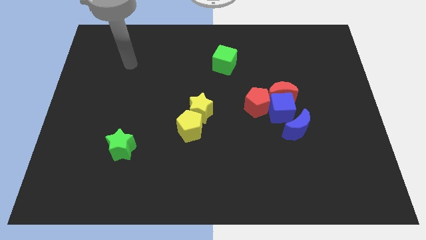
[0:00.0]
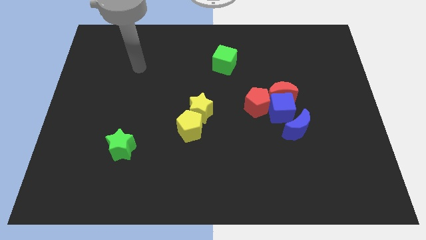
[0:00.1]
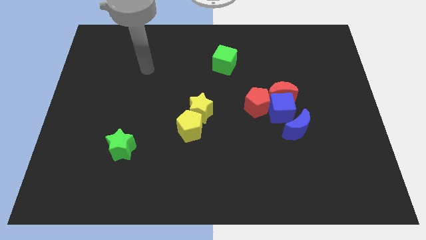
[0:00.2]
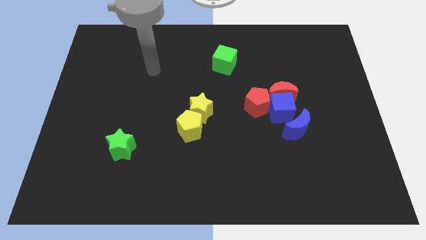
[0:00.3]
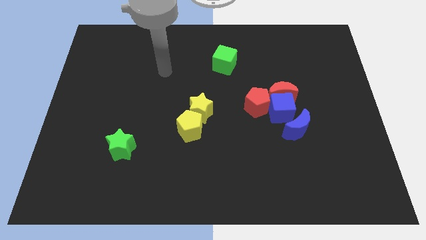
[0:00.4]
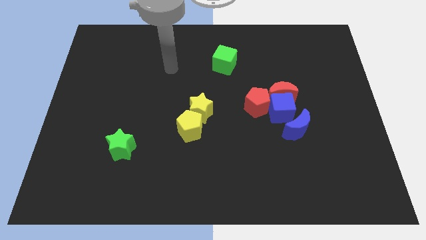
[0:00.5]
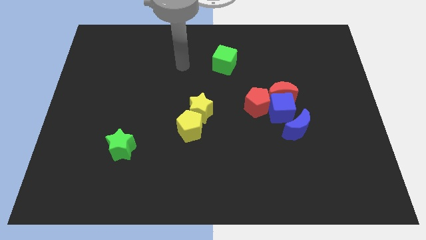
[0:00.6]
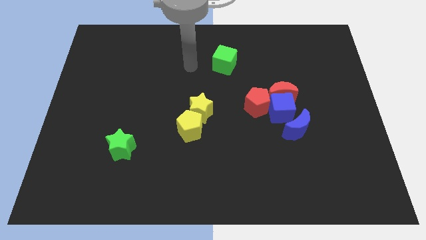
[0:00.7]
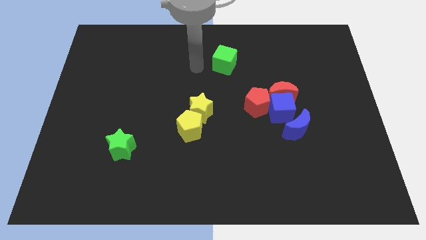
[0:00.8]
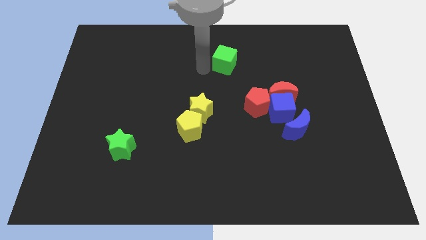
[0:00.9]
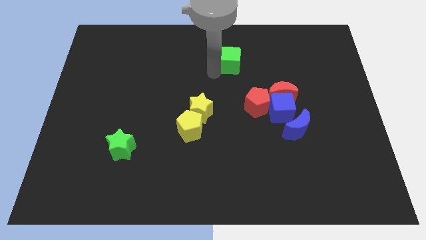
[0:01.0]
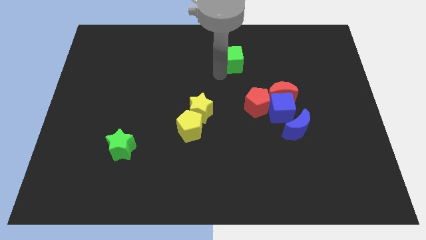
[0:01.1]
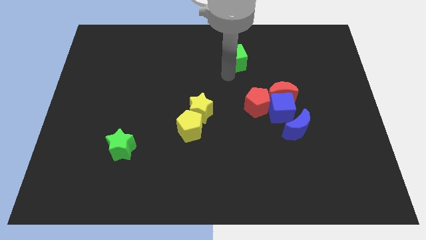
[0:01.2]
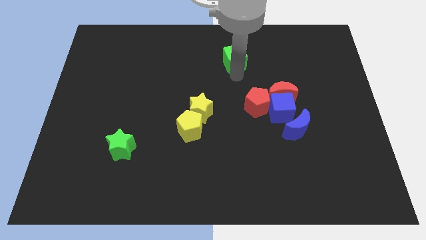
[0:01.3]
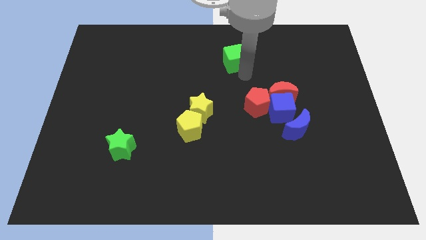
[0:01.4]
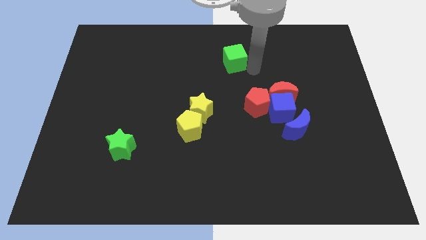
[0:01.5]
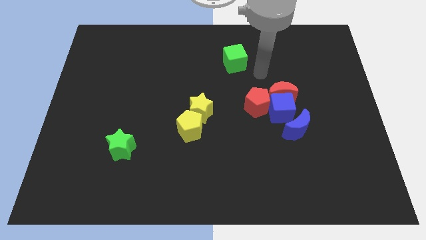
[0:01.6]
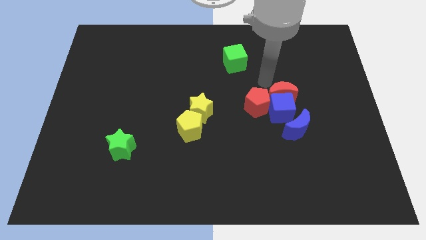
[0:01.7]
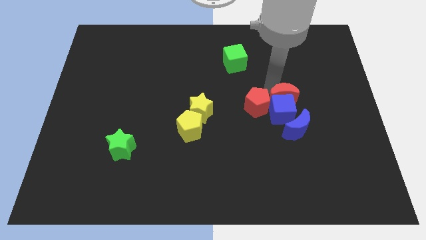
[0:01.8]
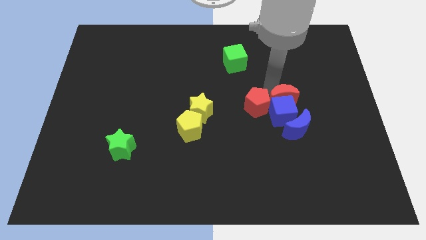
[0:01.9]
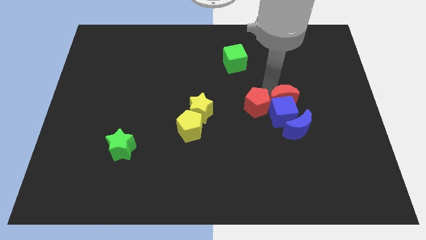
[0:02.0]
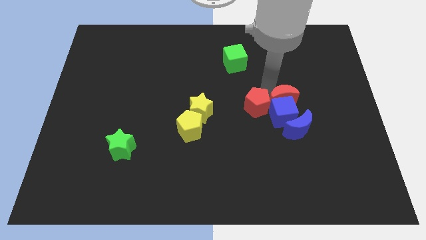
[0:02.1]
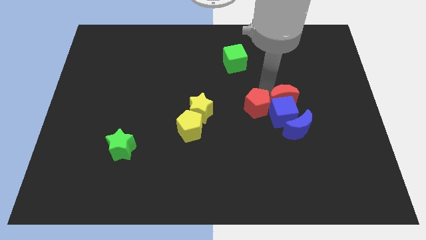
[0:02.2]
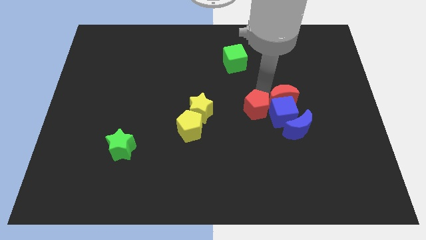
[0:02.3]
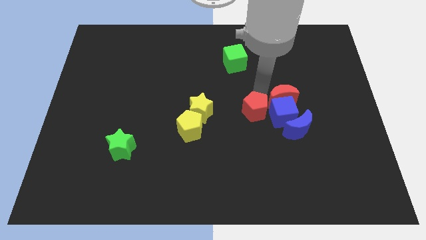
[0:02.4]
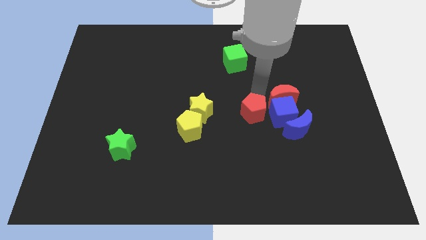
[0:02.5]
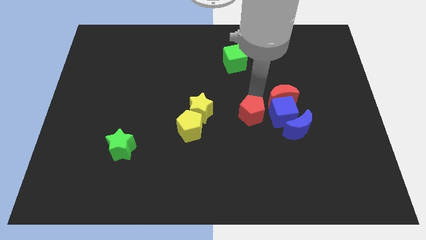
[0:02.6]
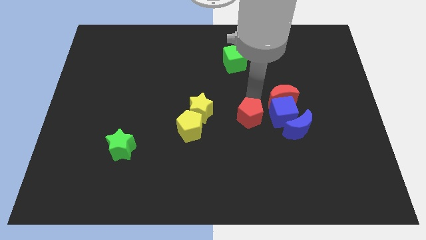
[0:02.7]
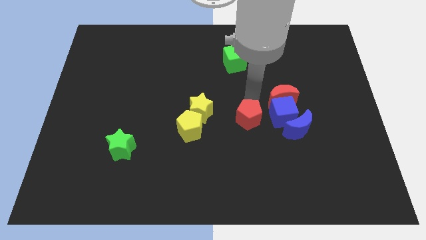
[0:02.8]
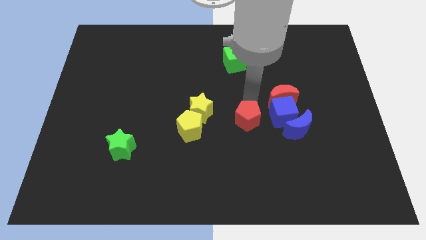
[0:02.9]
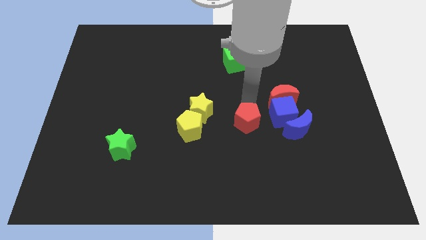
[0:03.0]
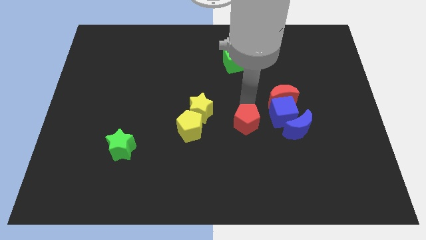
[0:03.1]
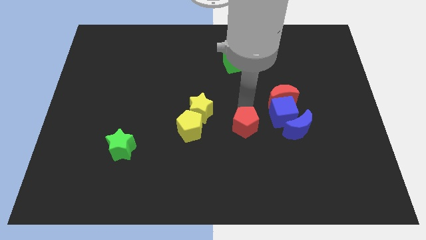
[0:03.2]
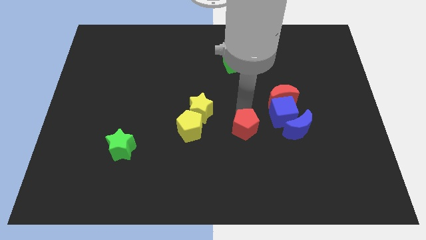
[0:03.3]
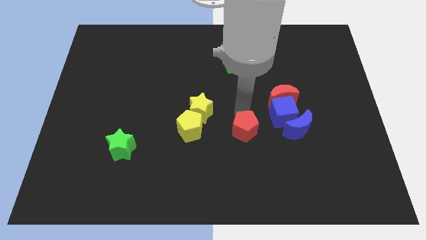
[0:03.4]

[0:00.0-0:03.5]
move the red pentagon diagonally down and left a little

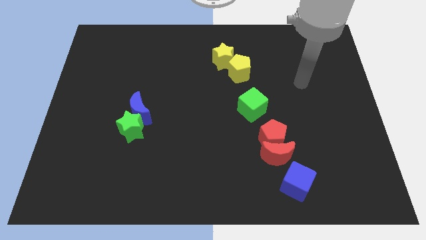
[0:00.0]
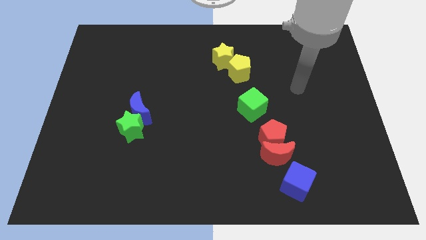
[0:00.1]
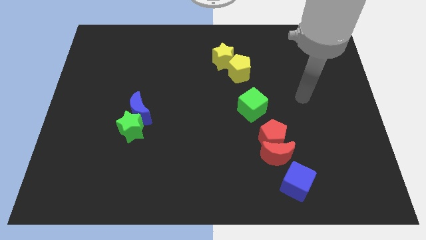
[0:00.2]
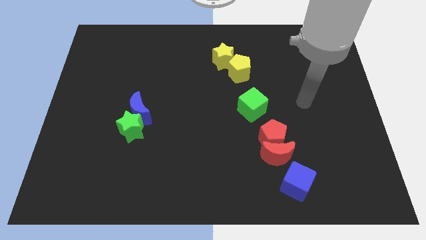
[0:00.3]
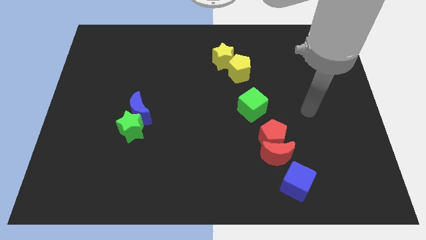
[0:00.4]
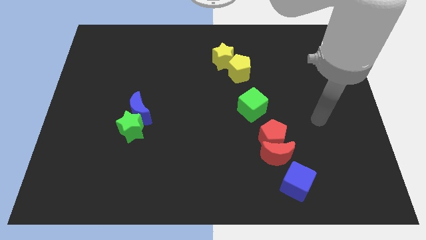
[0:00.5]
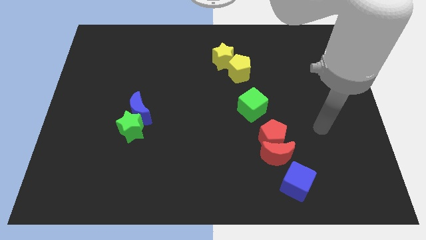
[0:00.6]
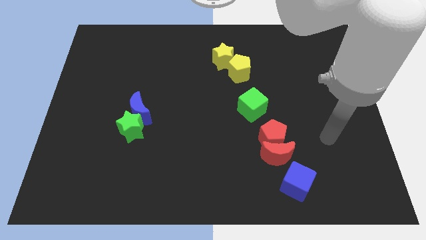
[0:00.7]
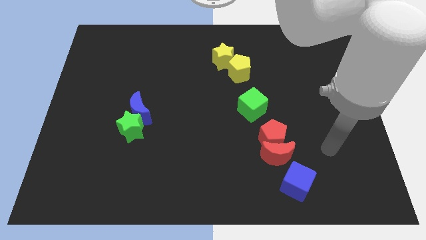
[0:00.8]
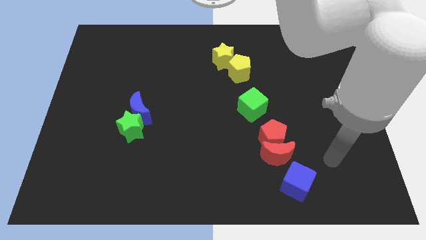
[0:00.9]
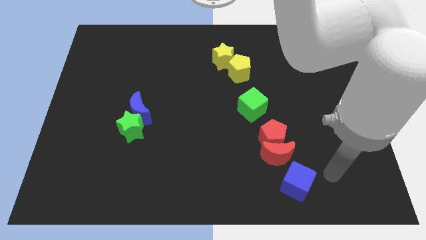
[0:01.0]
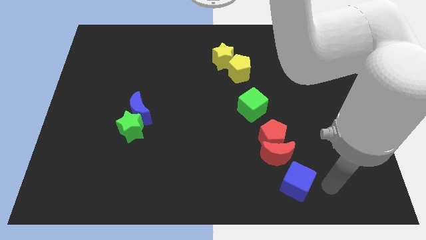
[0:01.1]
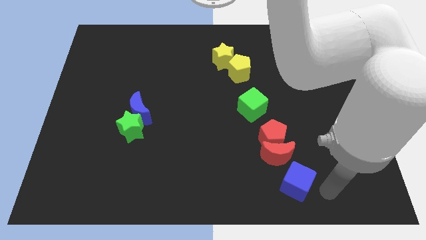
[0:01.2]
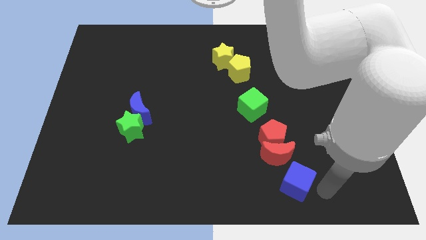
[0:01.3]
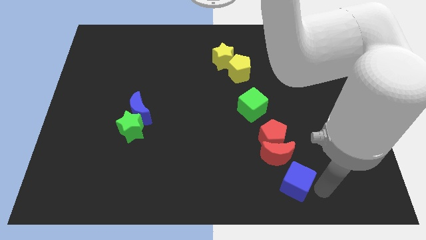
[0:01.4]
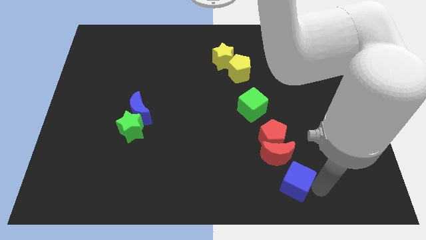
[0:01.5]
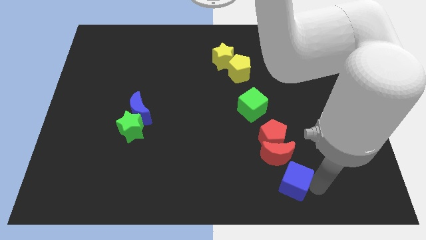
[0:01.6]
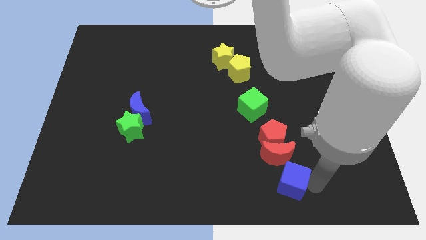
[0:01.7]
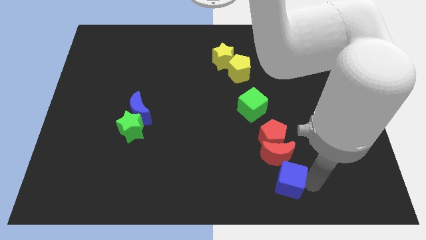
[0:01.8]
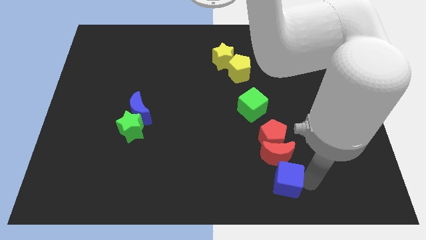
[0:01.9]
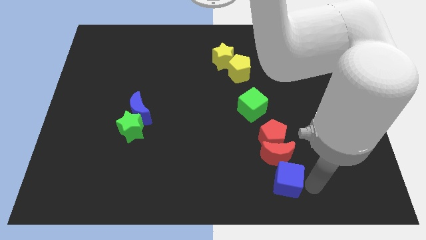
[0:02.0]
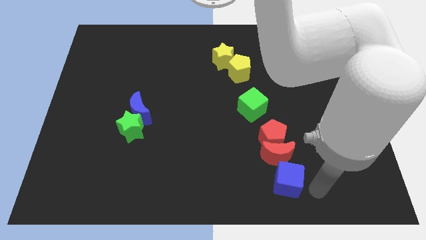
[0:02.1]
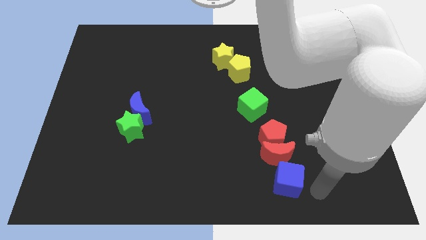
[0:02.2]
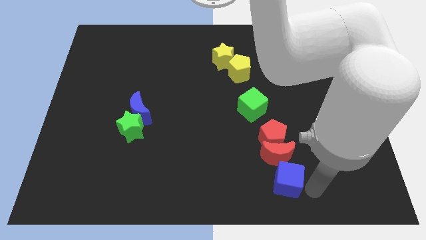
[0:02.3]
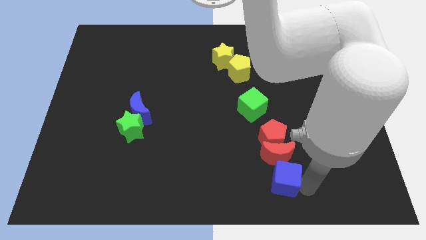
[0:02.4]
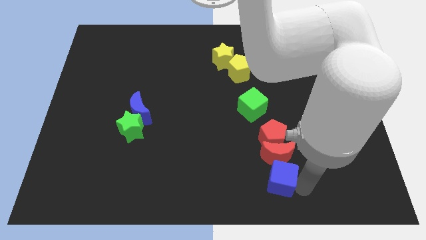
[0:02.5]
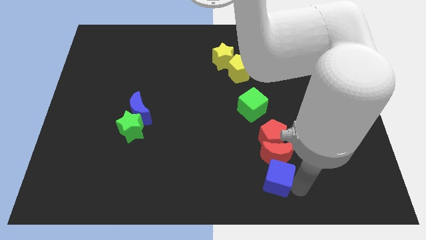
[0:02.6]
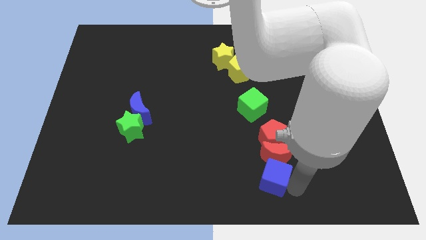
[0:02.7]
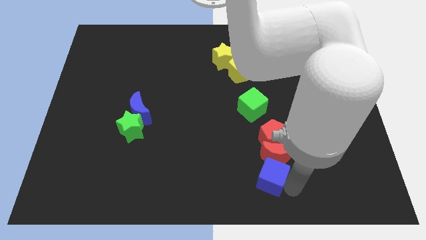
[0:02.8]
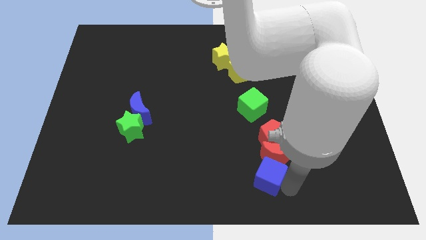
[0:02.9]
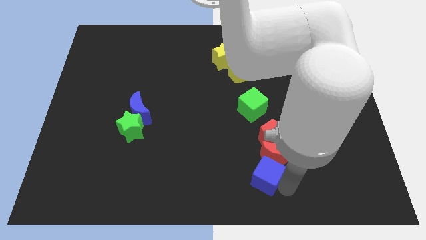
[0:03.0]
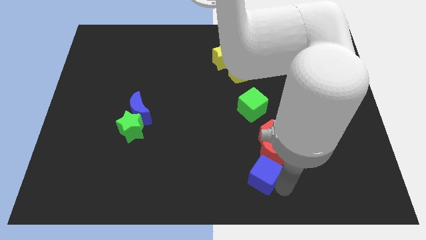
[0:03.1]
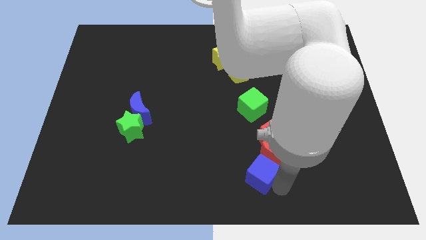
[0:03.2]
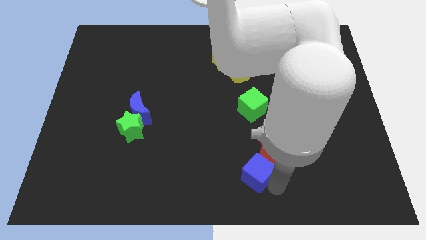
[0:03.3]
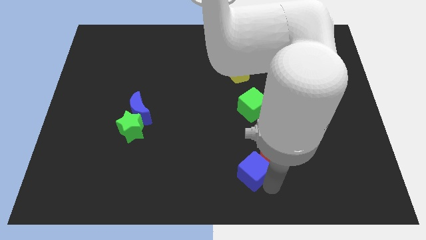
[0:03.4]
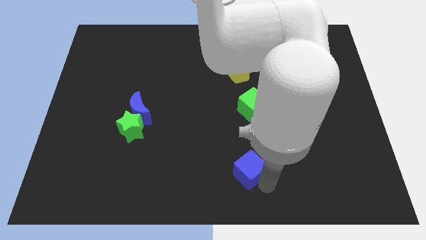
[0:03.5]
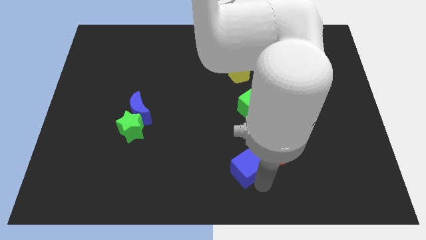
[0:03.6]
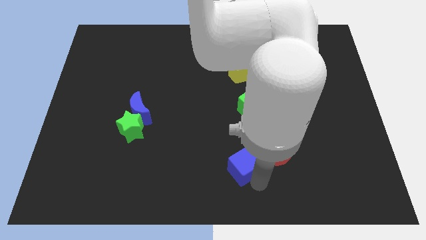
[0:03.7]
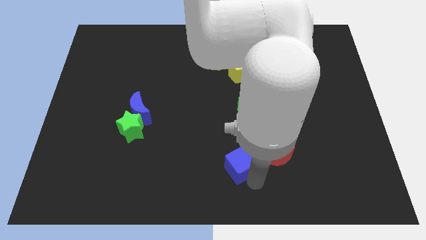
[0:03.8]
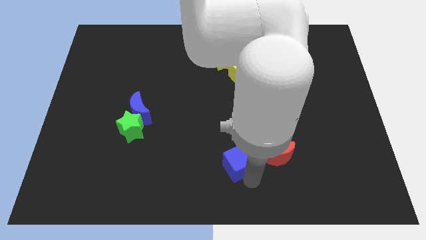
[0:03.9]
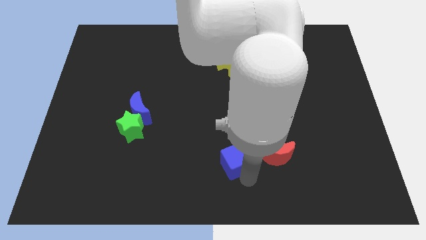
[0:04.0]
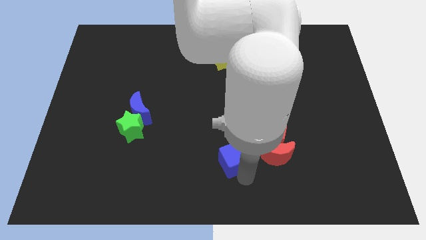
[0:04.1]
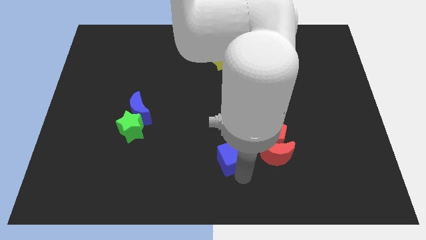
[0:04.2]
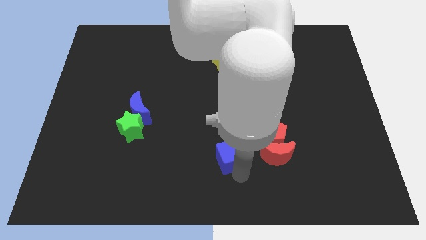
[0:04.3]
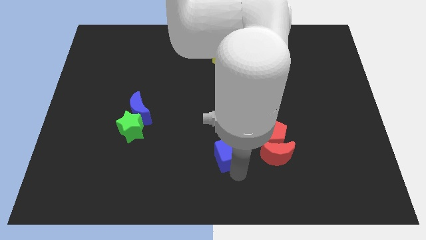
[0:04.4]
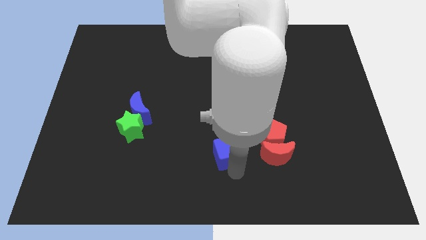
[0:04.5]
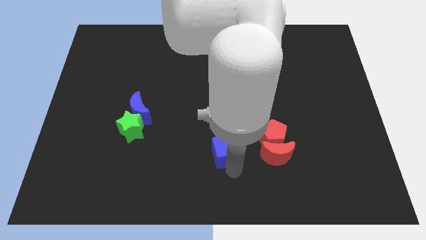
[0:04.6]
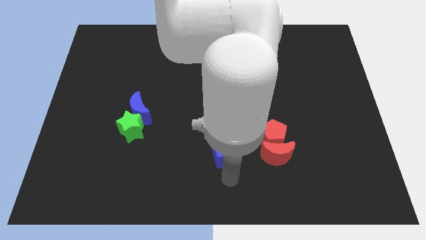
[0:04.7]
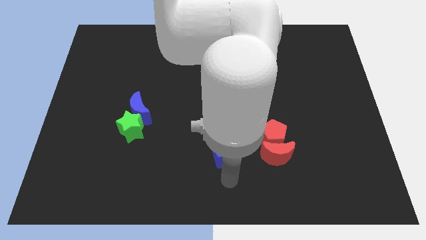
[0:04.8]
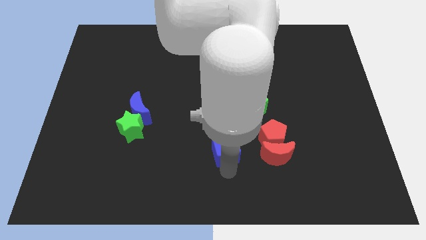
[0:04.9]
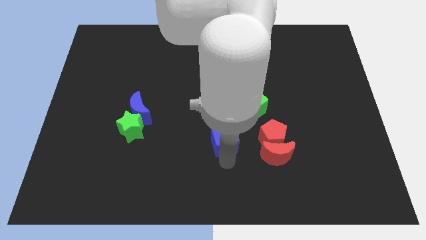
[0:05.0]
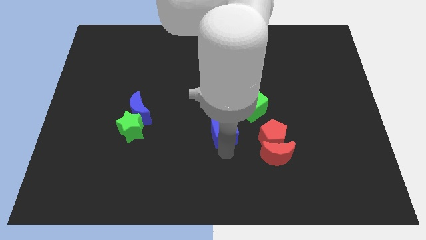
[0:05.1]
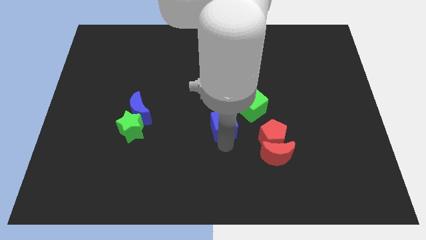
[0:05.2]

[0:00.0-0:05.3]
move the blue cube up and then left
